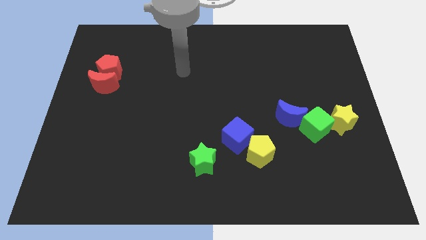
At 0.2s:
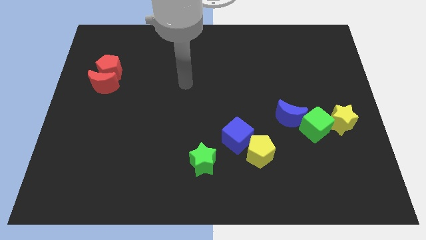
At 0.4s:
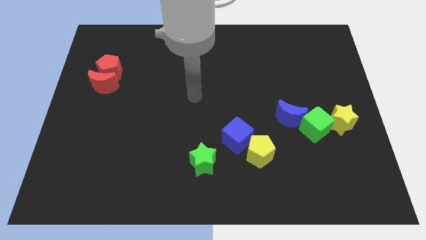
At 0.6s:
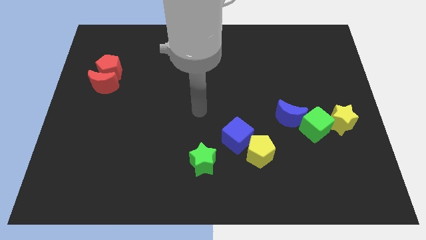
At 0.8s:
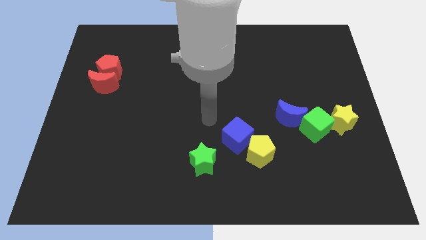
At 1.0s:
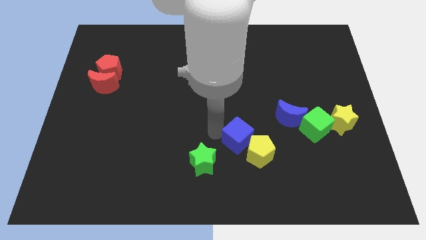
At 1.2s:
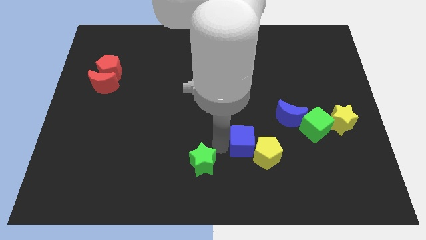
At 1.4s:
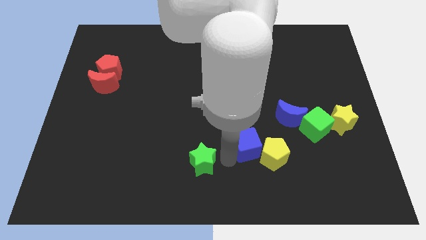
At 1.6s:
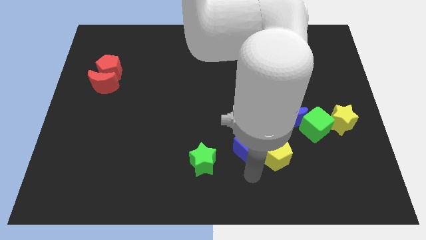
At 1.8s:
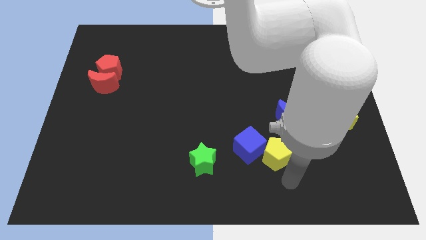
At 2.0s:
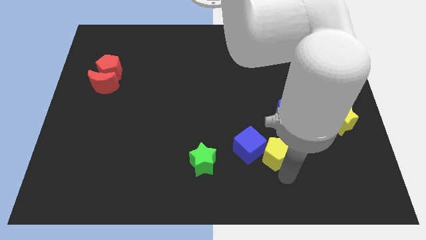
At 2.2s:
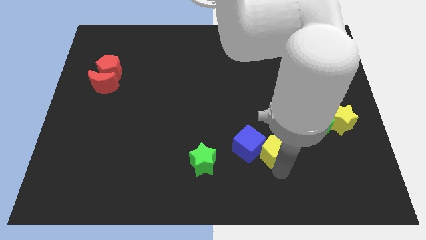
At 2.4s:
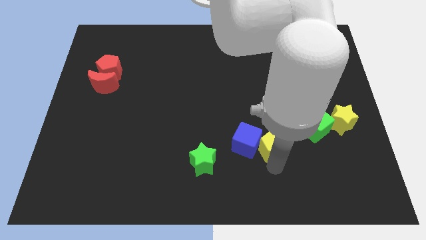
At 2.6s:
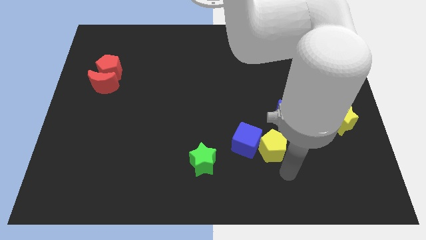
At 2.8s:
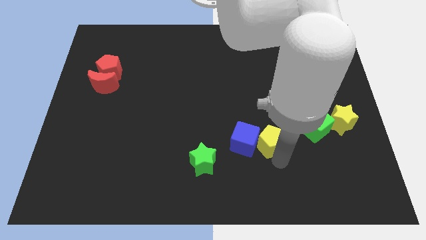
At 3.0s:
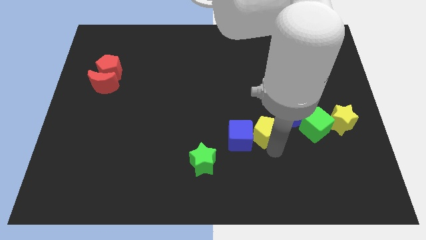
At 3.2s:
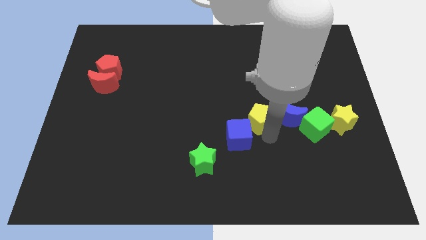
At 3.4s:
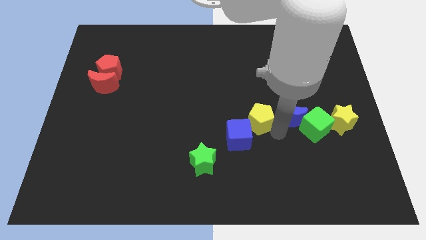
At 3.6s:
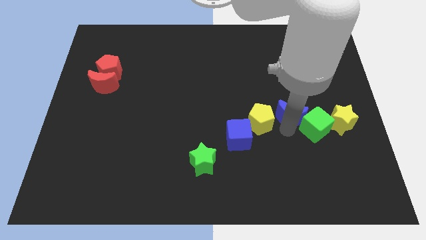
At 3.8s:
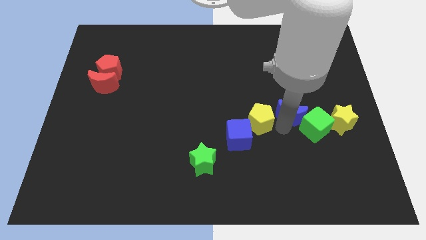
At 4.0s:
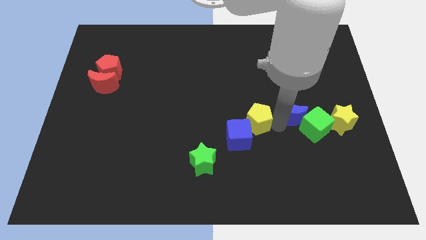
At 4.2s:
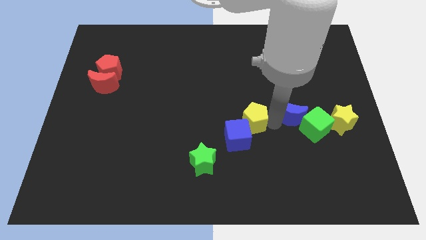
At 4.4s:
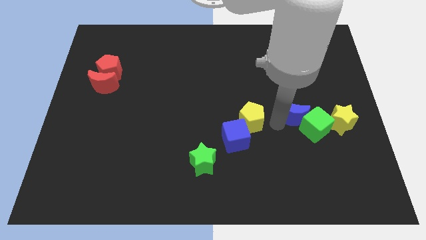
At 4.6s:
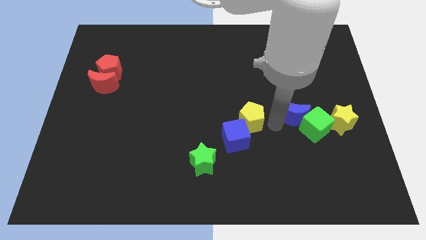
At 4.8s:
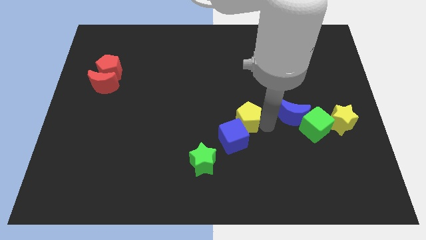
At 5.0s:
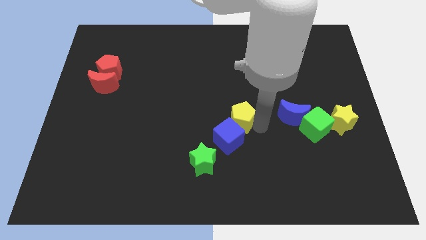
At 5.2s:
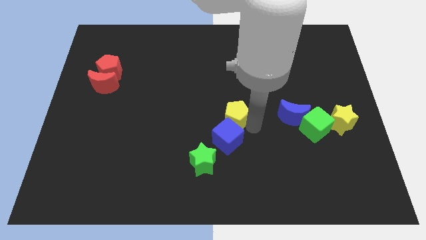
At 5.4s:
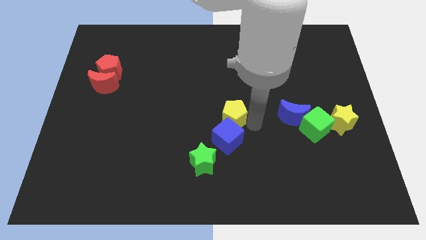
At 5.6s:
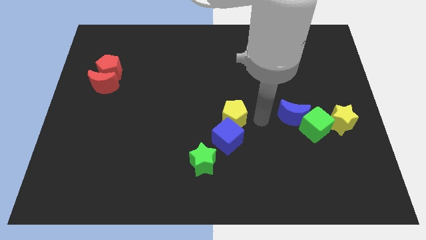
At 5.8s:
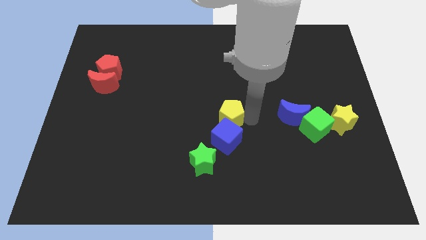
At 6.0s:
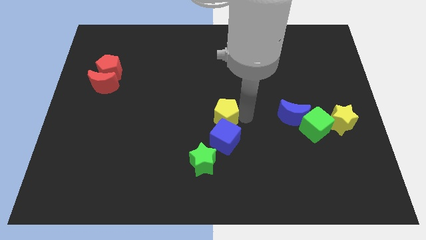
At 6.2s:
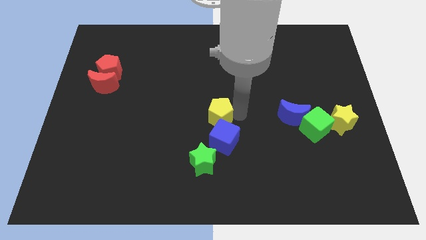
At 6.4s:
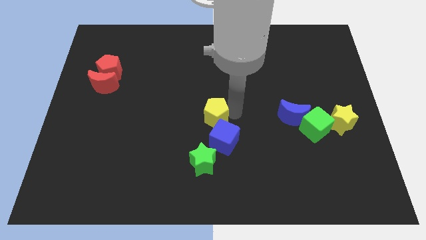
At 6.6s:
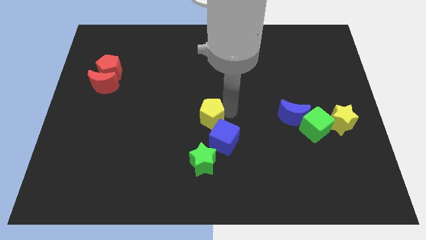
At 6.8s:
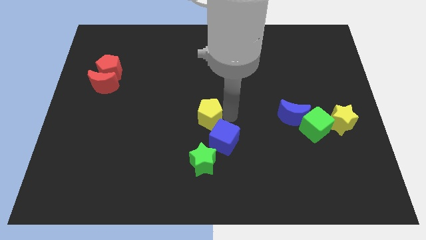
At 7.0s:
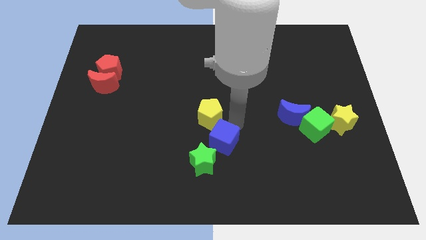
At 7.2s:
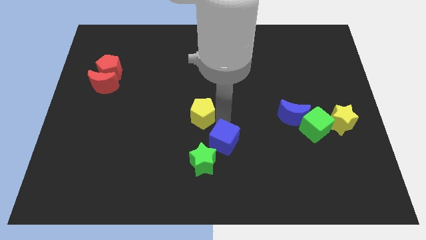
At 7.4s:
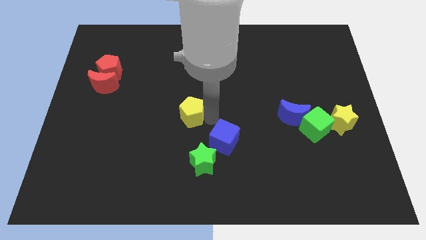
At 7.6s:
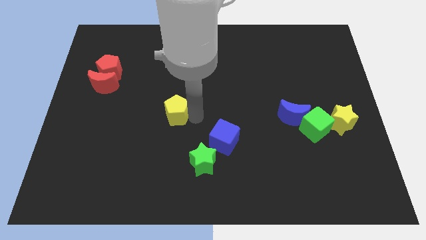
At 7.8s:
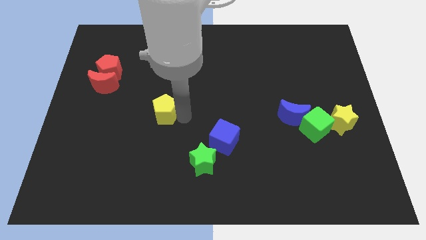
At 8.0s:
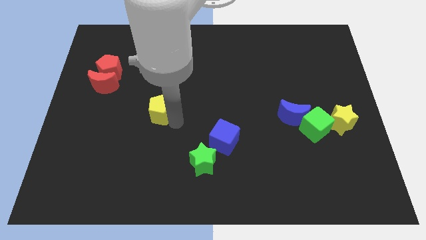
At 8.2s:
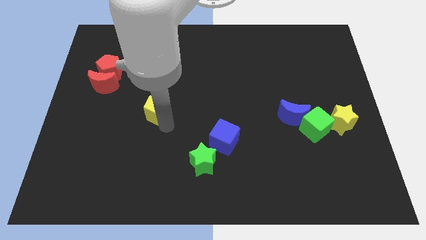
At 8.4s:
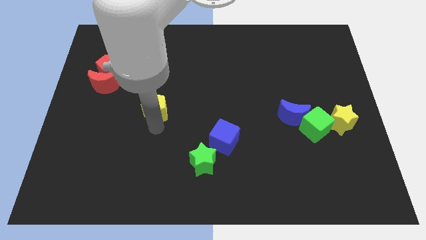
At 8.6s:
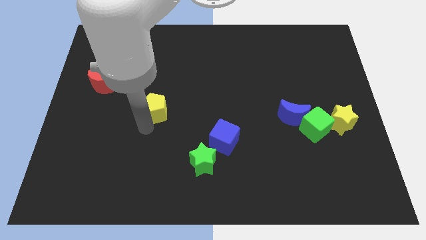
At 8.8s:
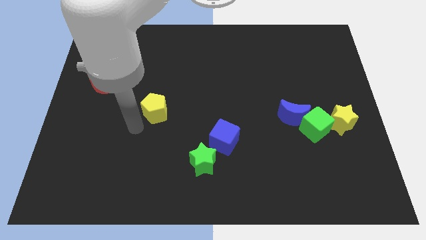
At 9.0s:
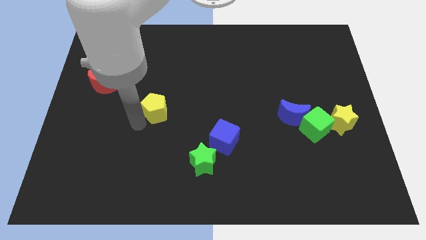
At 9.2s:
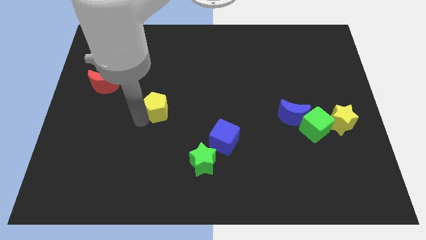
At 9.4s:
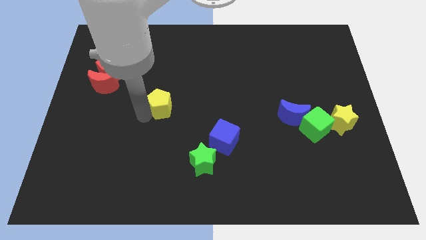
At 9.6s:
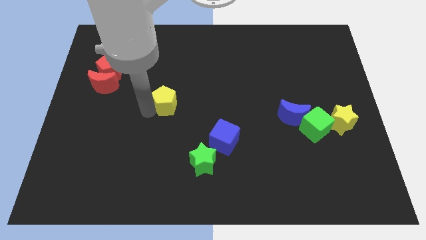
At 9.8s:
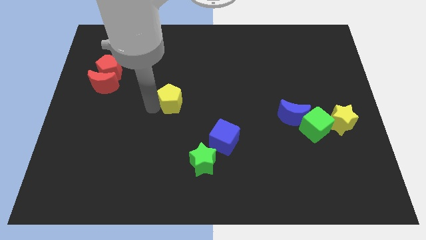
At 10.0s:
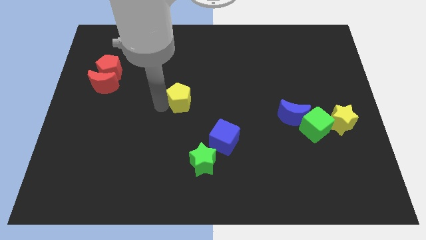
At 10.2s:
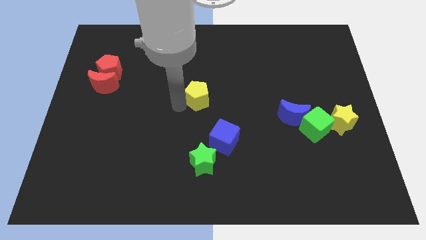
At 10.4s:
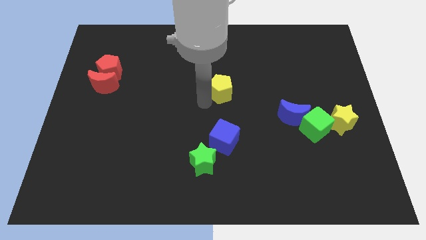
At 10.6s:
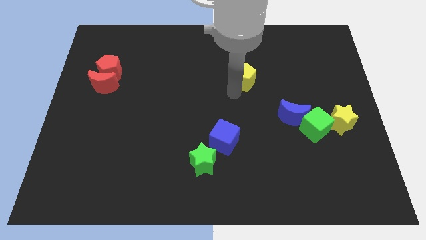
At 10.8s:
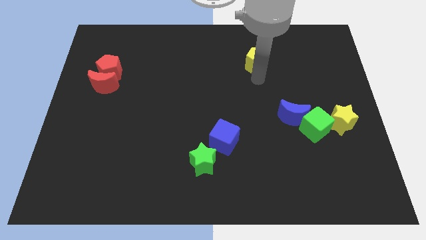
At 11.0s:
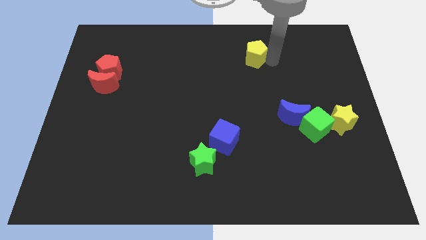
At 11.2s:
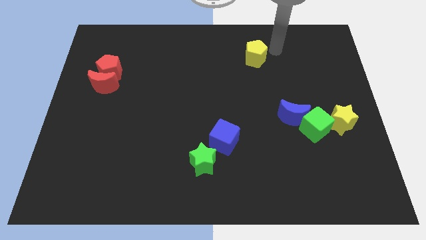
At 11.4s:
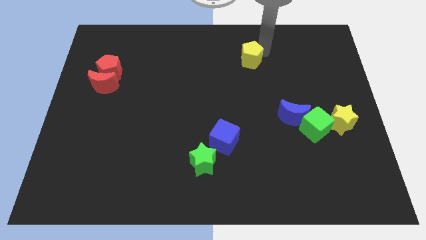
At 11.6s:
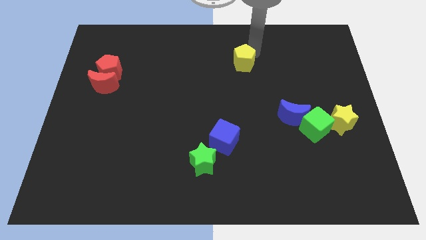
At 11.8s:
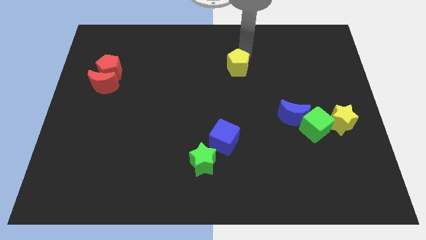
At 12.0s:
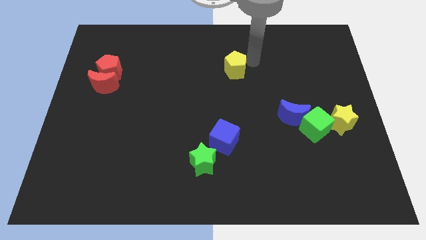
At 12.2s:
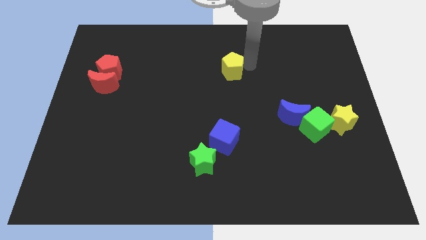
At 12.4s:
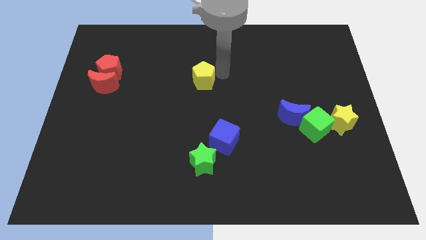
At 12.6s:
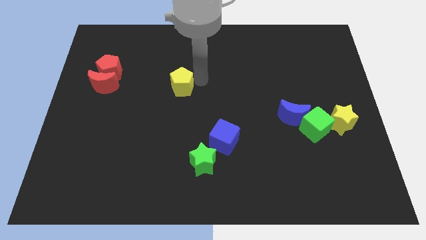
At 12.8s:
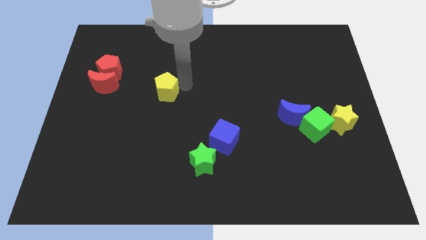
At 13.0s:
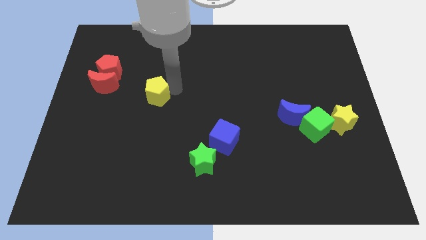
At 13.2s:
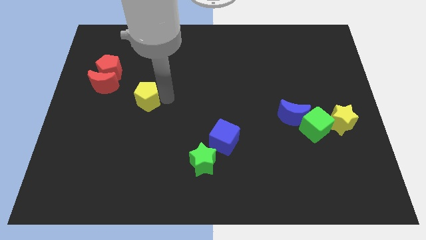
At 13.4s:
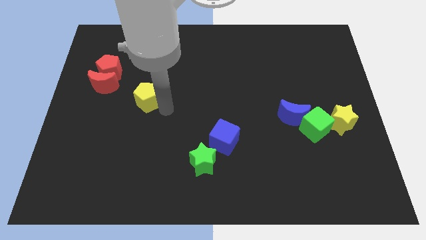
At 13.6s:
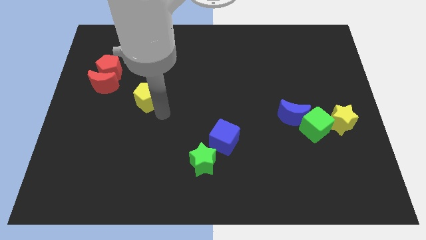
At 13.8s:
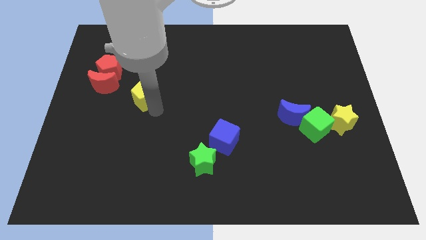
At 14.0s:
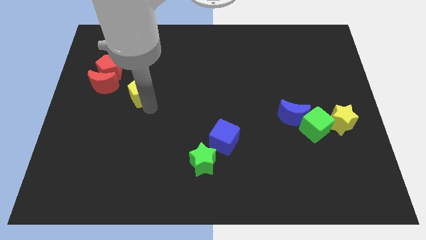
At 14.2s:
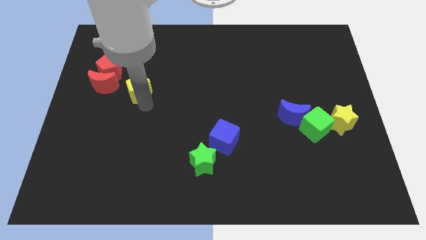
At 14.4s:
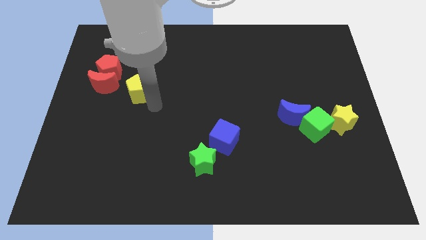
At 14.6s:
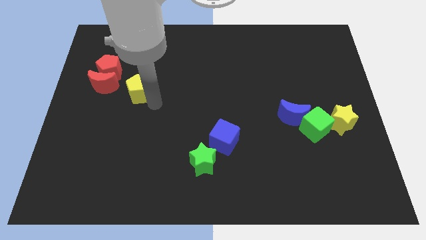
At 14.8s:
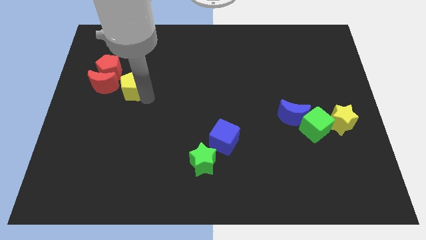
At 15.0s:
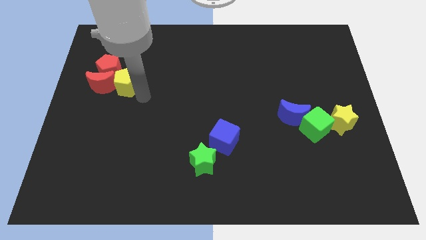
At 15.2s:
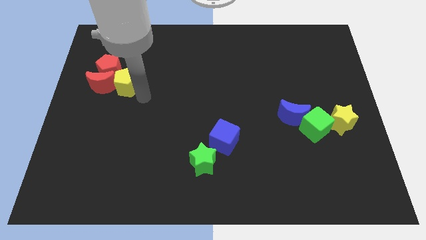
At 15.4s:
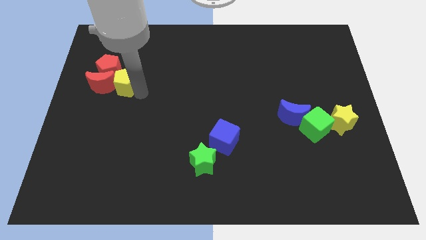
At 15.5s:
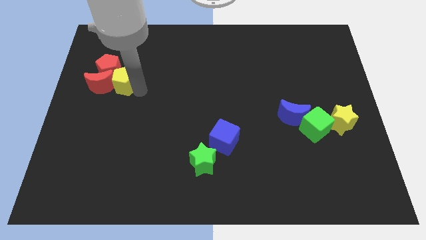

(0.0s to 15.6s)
slide the yellow pentagon towards the red pentagon
